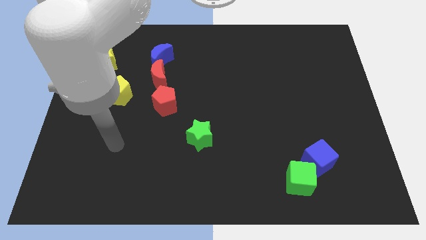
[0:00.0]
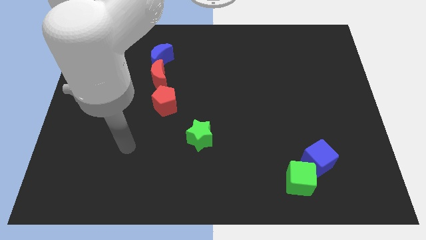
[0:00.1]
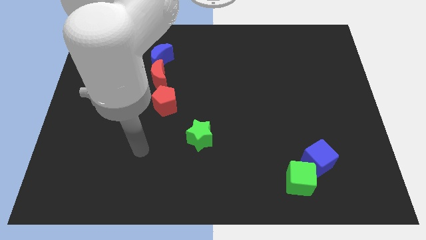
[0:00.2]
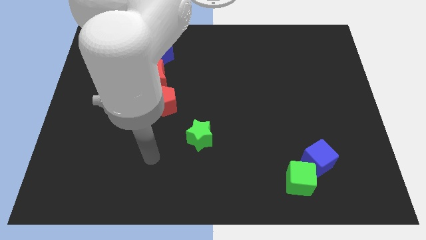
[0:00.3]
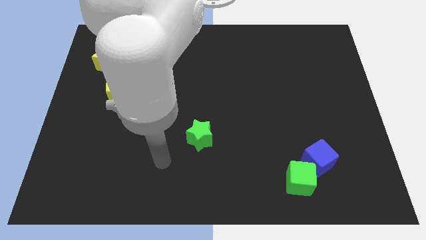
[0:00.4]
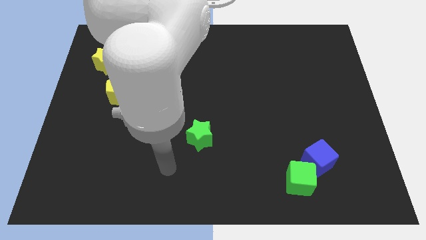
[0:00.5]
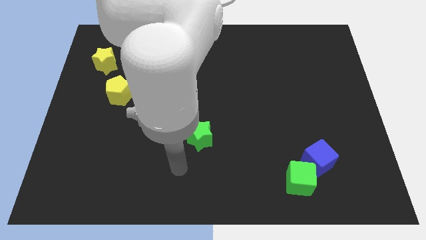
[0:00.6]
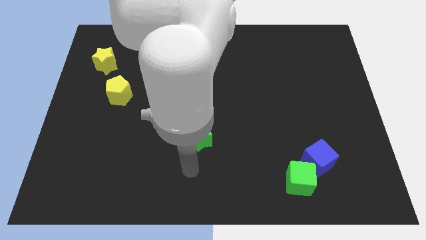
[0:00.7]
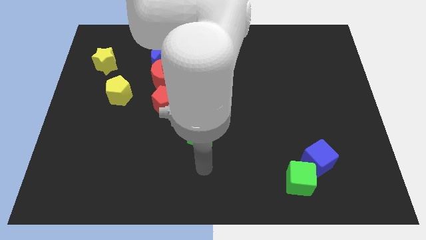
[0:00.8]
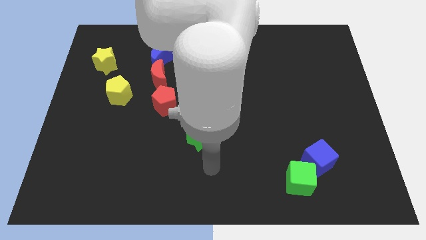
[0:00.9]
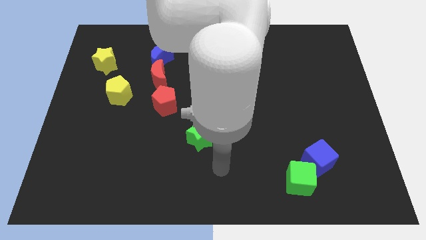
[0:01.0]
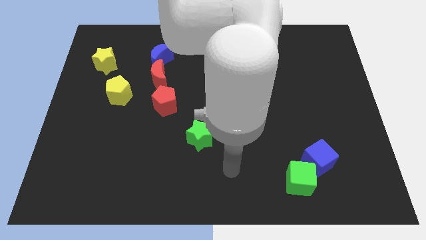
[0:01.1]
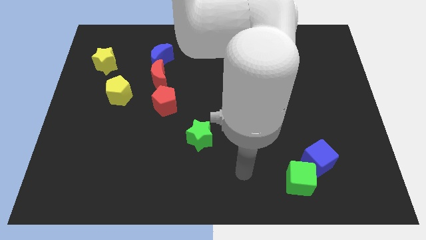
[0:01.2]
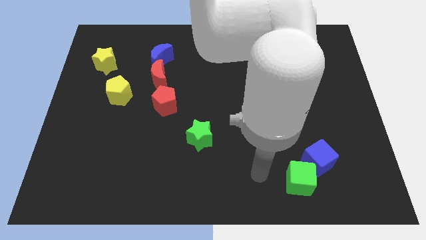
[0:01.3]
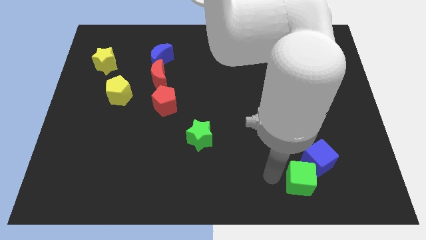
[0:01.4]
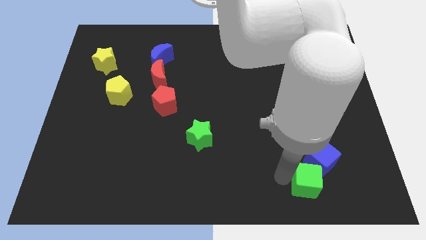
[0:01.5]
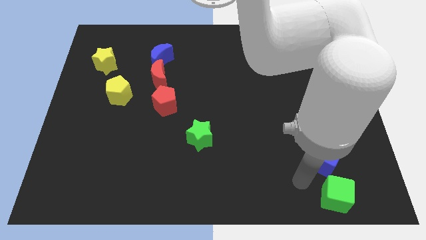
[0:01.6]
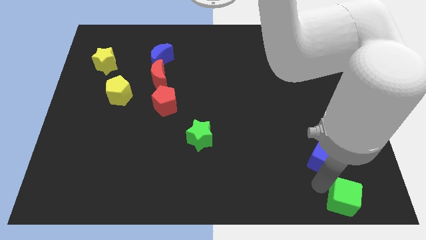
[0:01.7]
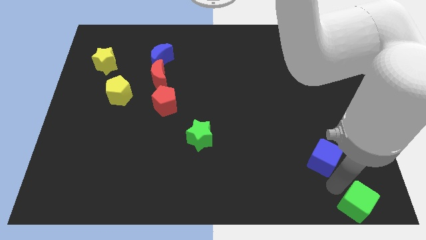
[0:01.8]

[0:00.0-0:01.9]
separate the blue cube from the green cube

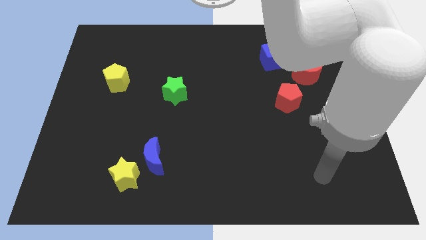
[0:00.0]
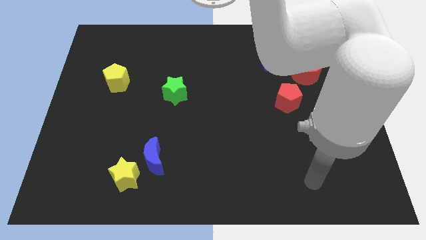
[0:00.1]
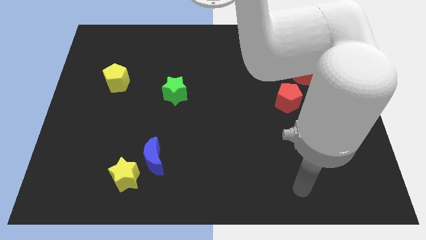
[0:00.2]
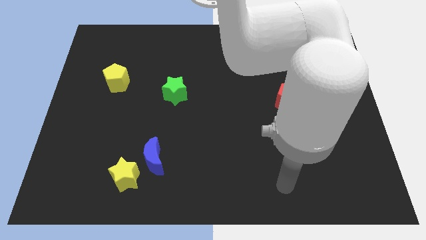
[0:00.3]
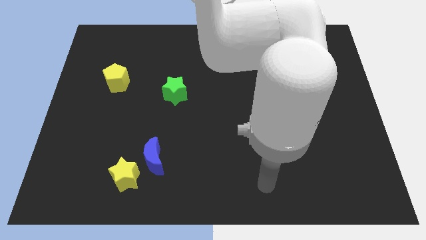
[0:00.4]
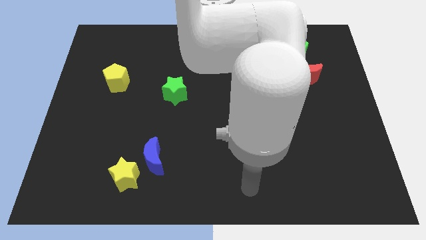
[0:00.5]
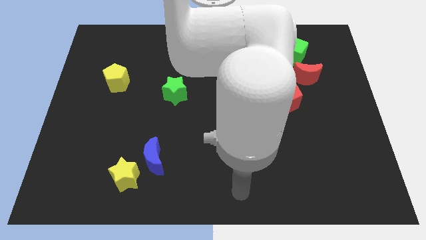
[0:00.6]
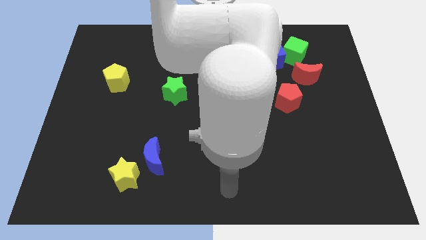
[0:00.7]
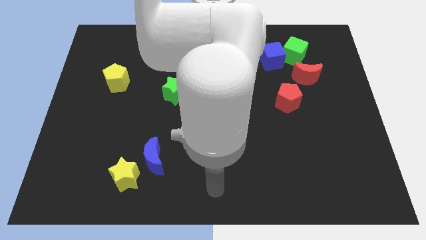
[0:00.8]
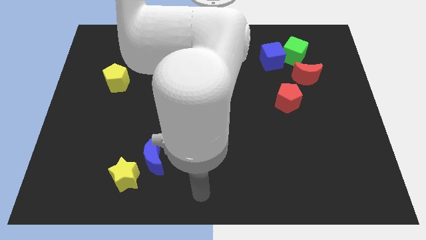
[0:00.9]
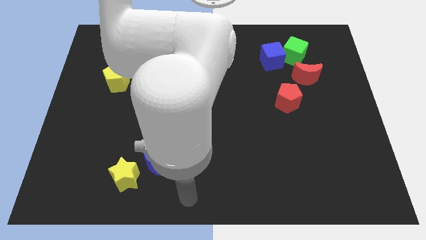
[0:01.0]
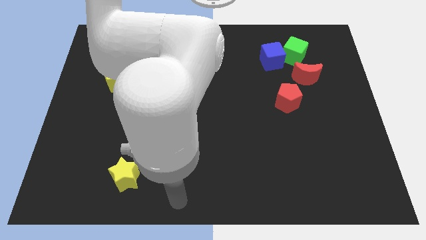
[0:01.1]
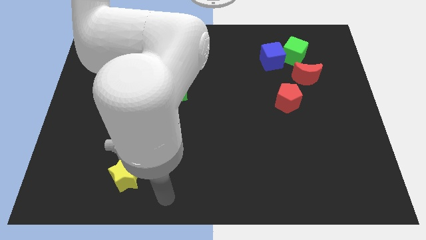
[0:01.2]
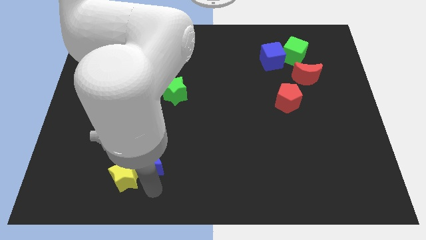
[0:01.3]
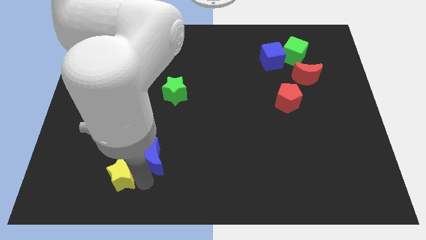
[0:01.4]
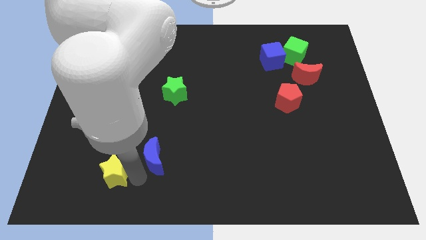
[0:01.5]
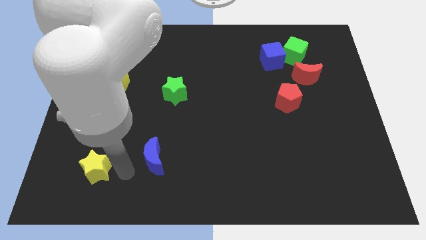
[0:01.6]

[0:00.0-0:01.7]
move the blue moon away from the yellow star

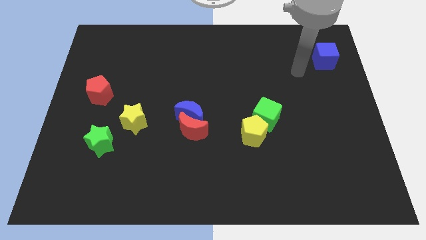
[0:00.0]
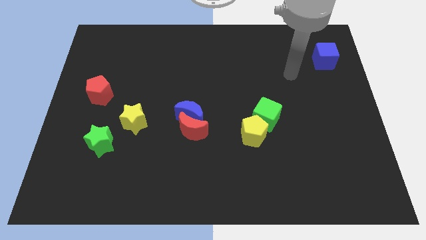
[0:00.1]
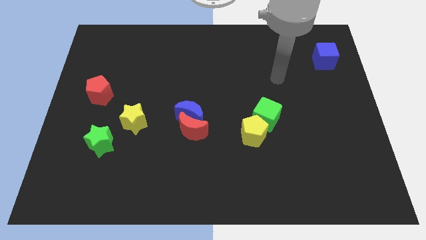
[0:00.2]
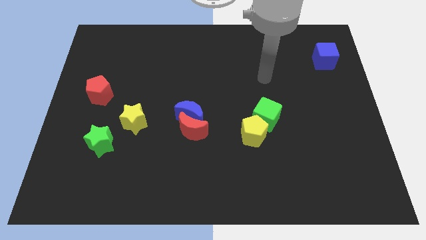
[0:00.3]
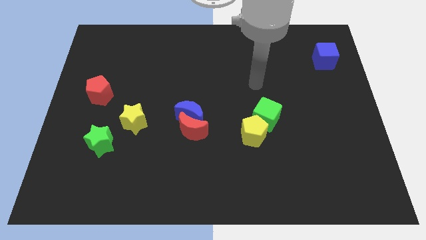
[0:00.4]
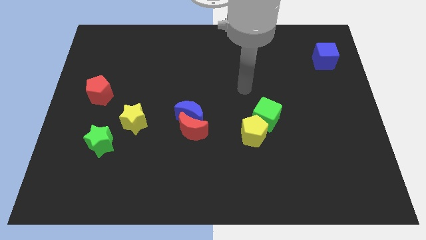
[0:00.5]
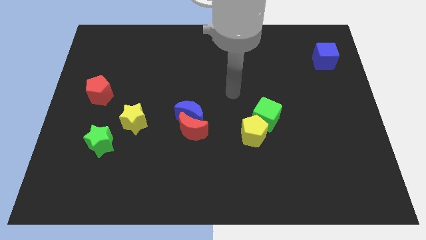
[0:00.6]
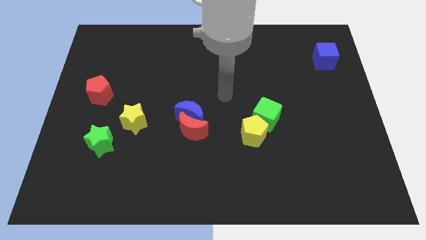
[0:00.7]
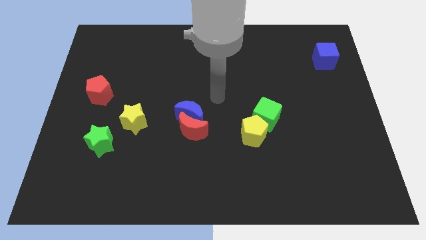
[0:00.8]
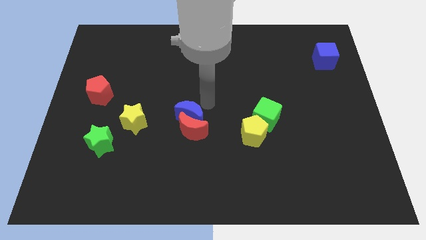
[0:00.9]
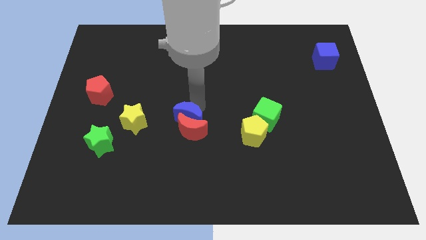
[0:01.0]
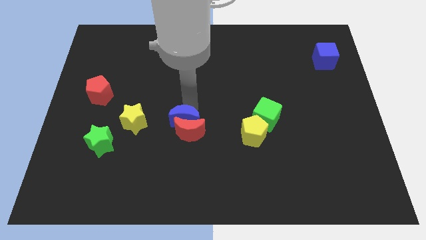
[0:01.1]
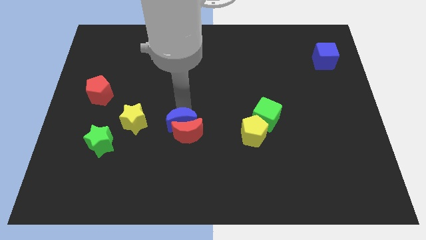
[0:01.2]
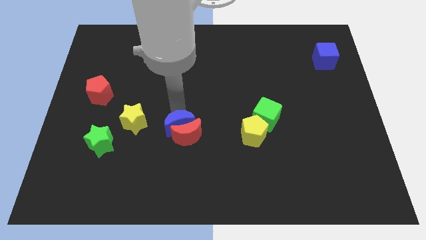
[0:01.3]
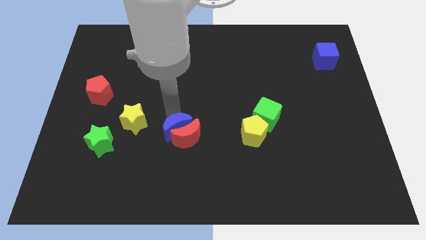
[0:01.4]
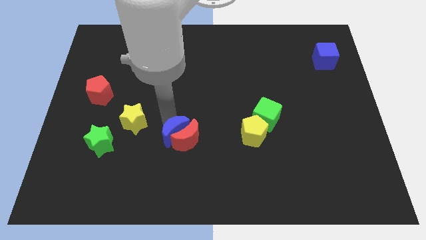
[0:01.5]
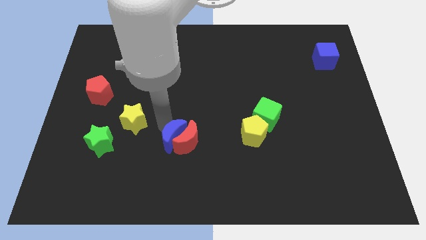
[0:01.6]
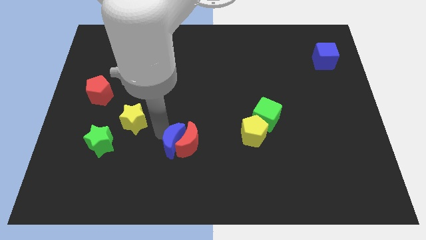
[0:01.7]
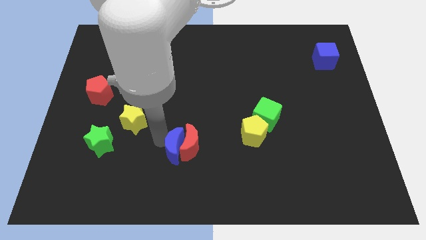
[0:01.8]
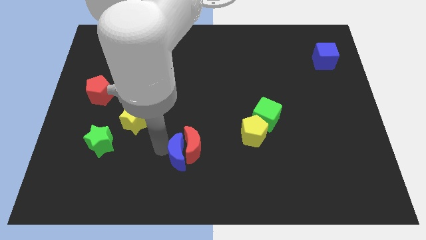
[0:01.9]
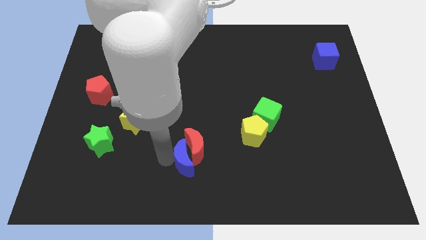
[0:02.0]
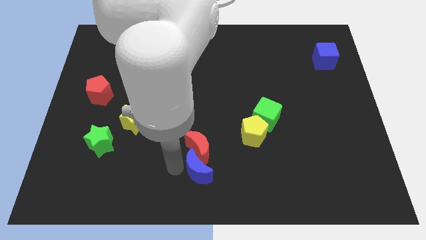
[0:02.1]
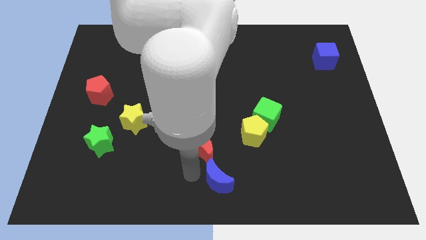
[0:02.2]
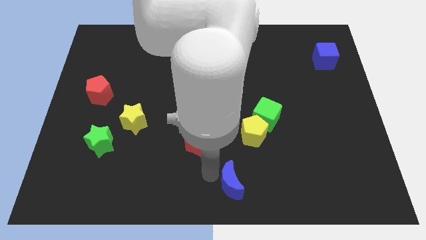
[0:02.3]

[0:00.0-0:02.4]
pull the red moon apart from the blue moon

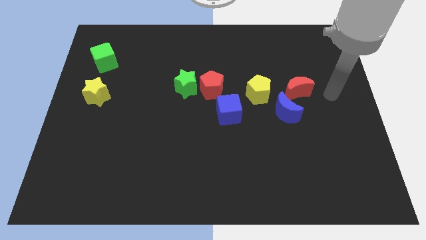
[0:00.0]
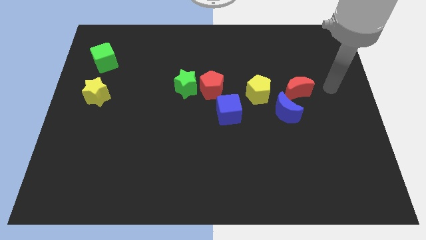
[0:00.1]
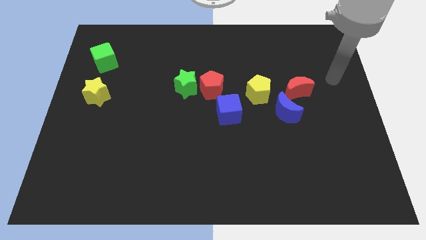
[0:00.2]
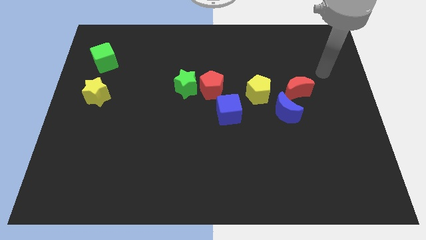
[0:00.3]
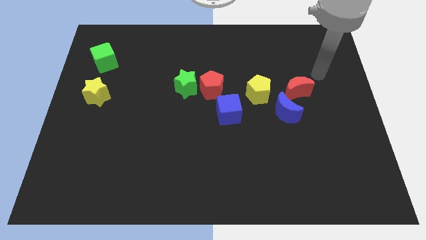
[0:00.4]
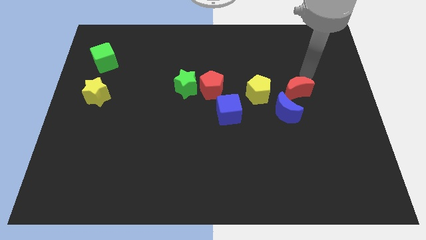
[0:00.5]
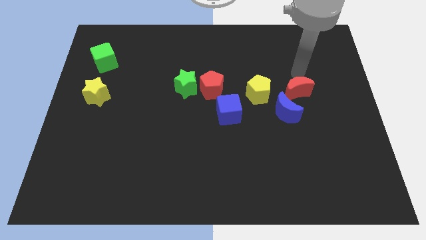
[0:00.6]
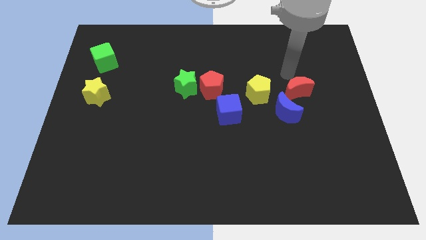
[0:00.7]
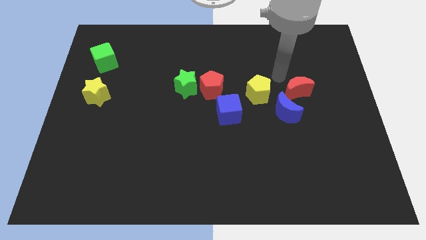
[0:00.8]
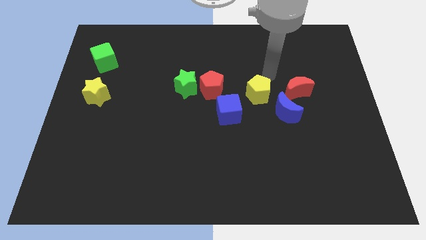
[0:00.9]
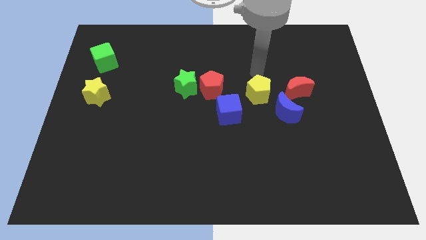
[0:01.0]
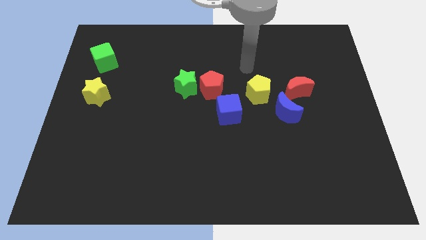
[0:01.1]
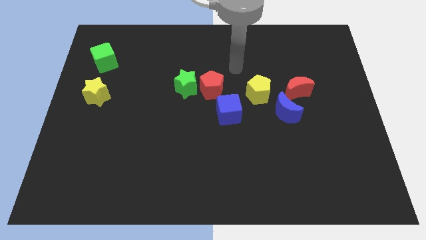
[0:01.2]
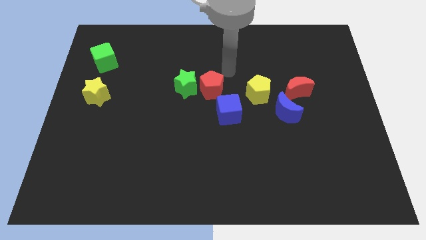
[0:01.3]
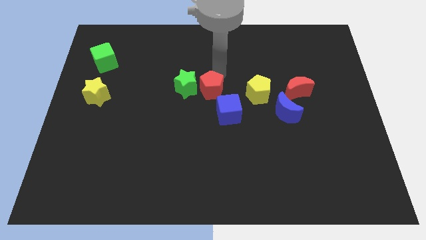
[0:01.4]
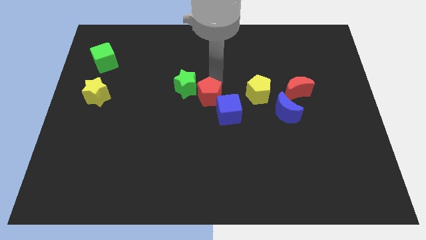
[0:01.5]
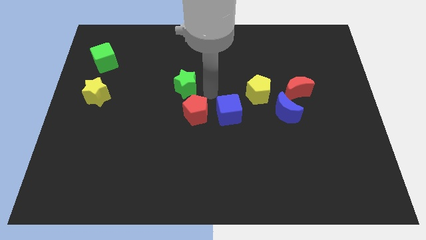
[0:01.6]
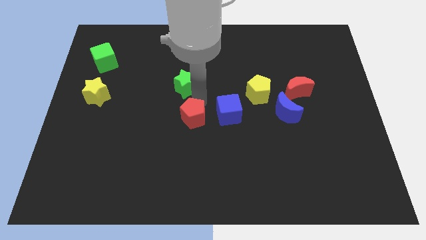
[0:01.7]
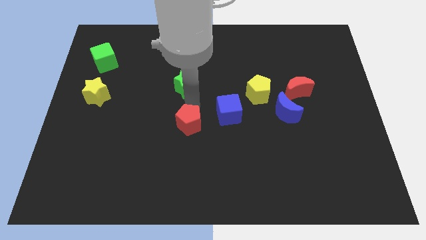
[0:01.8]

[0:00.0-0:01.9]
move the green star away from the red pentagon

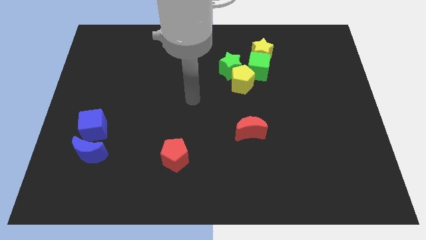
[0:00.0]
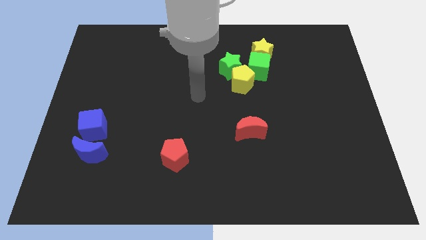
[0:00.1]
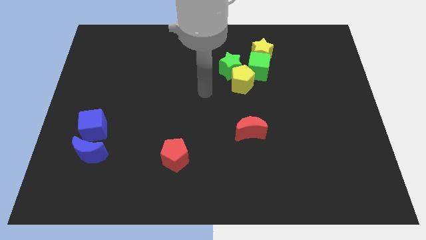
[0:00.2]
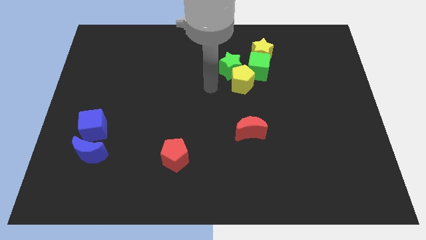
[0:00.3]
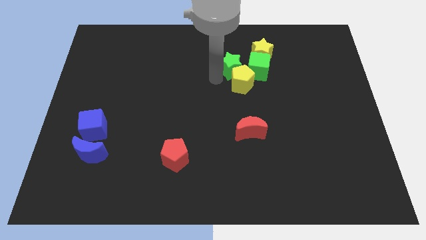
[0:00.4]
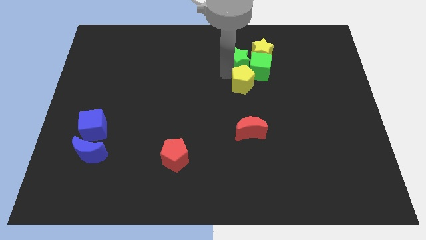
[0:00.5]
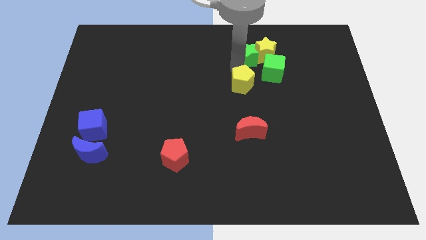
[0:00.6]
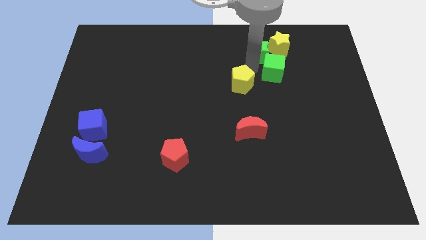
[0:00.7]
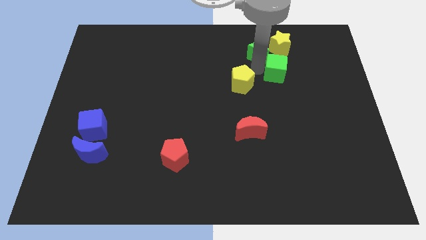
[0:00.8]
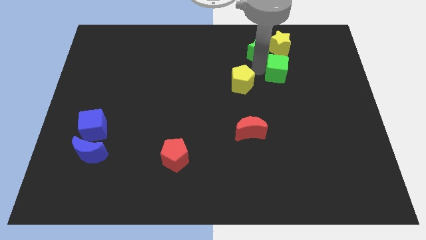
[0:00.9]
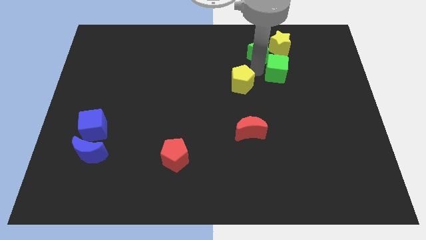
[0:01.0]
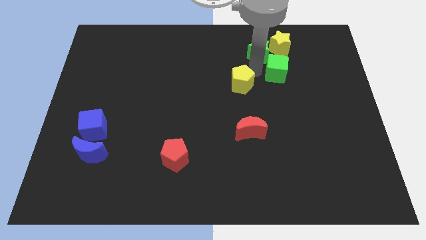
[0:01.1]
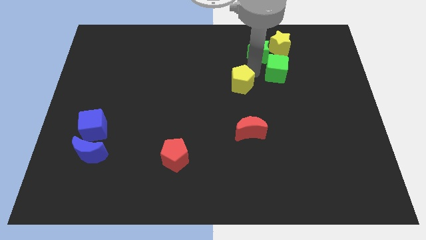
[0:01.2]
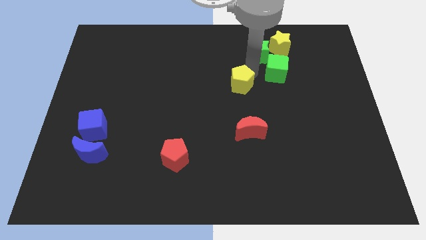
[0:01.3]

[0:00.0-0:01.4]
pull the yellow pentagon apart from the green star and green cube
